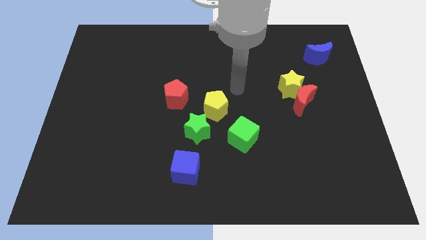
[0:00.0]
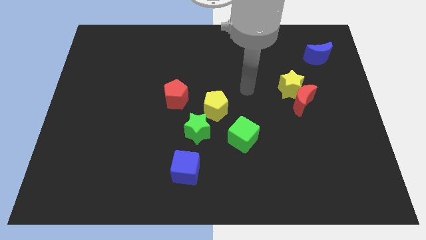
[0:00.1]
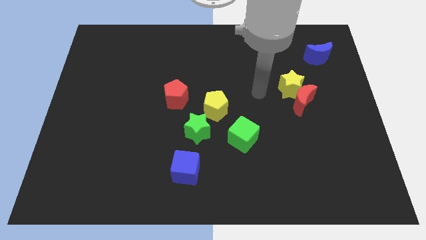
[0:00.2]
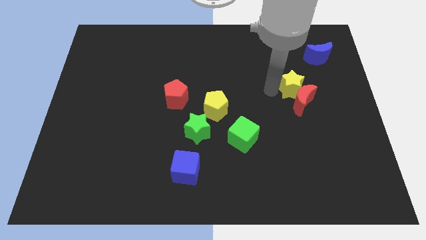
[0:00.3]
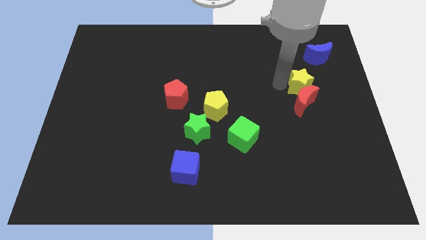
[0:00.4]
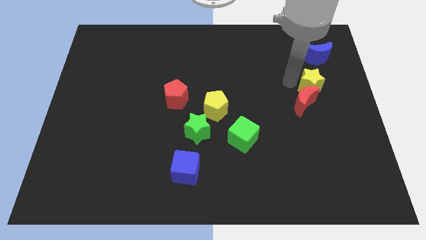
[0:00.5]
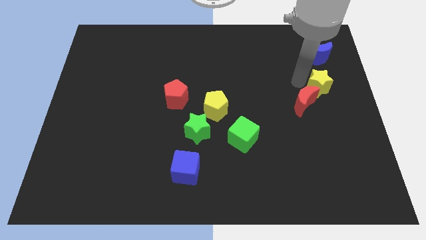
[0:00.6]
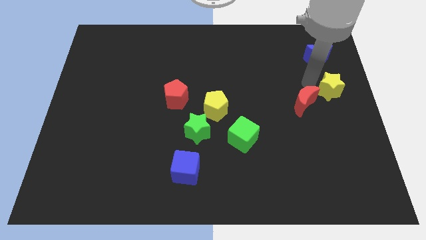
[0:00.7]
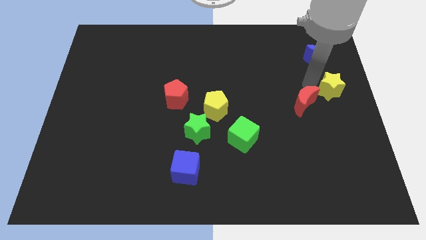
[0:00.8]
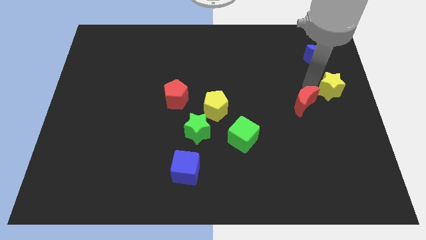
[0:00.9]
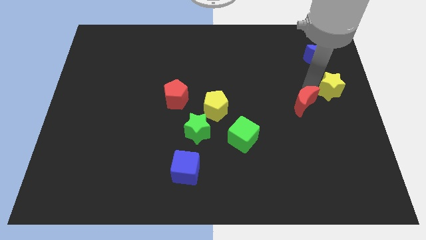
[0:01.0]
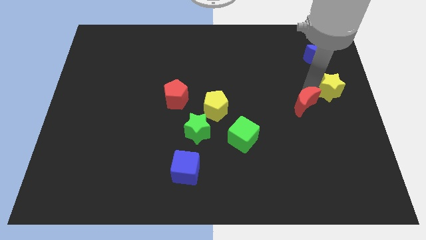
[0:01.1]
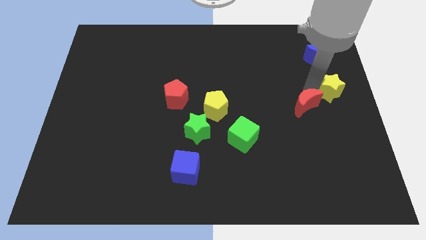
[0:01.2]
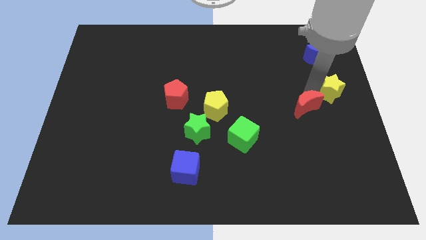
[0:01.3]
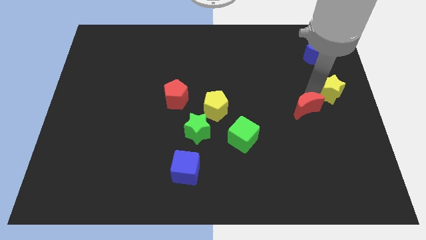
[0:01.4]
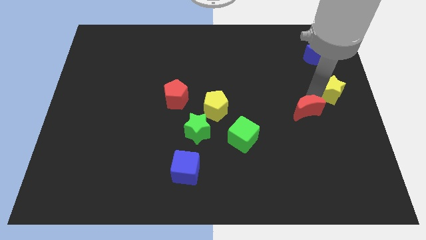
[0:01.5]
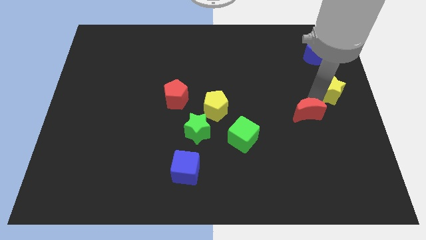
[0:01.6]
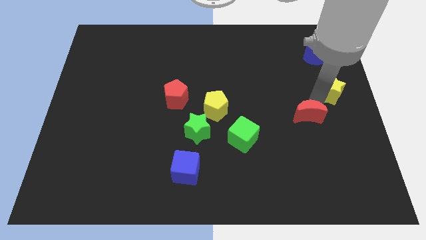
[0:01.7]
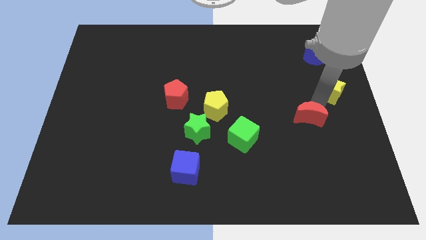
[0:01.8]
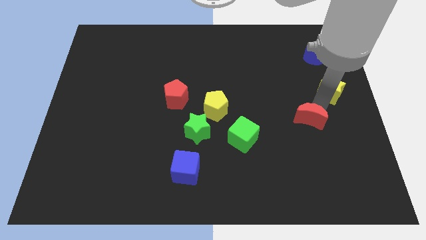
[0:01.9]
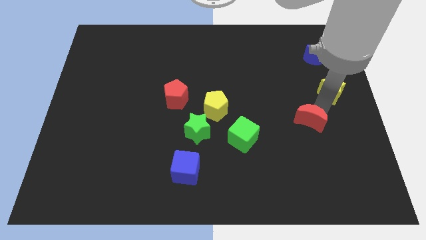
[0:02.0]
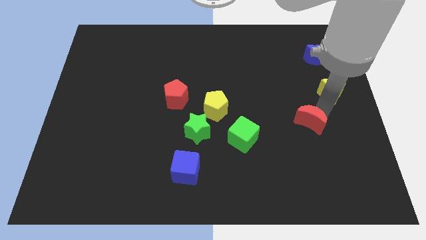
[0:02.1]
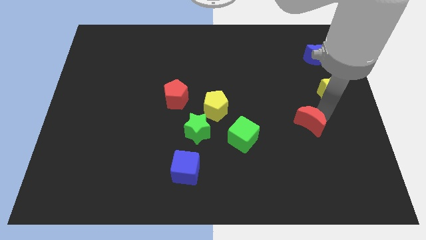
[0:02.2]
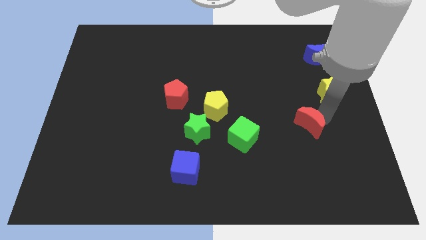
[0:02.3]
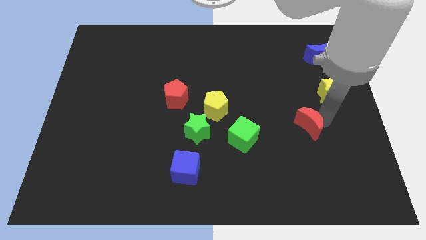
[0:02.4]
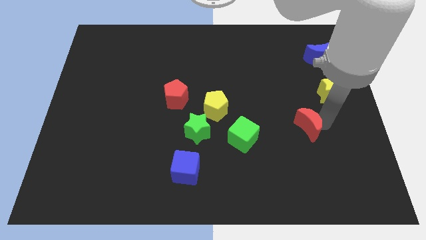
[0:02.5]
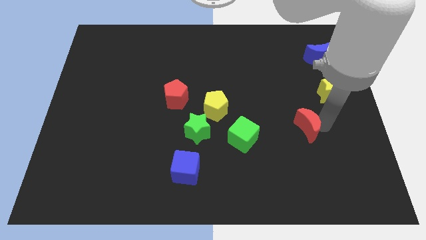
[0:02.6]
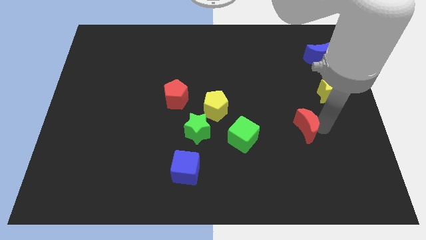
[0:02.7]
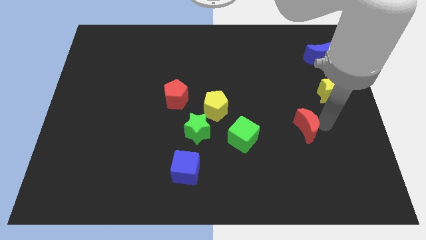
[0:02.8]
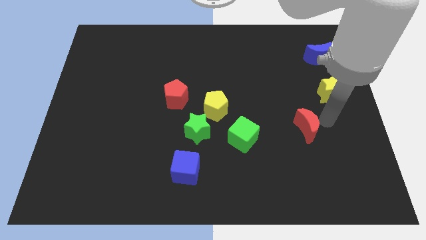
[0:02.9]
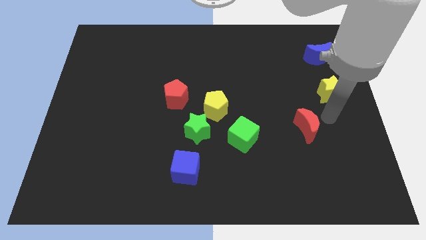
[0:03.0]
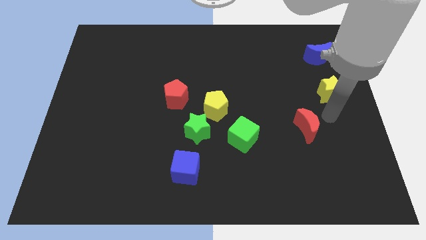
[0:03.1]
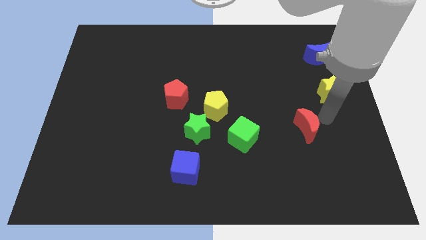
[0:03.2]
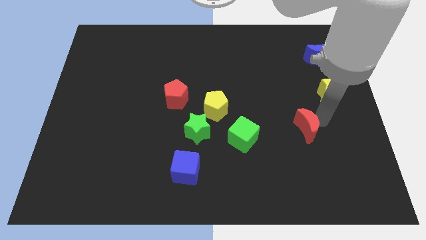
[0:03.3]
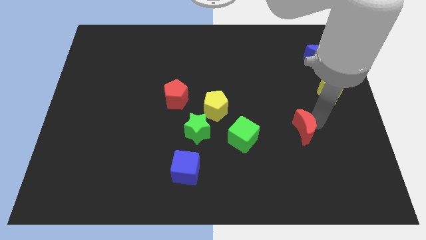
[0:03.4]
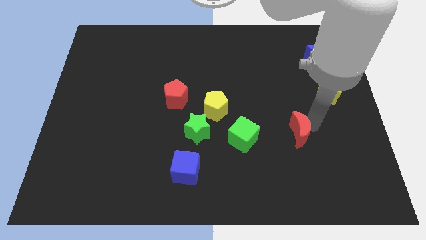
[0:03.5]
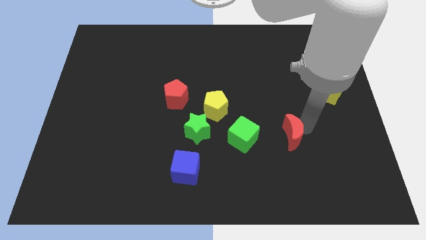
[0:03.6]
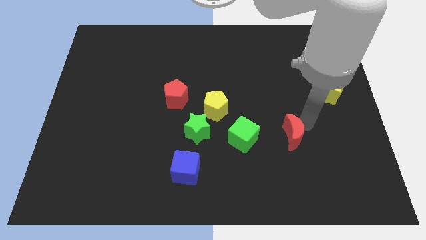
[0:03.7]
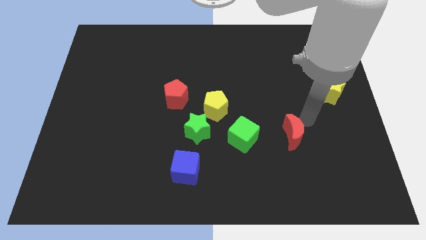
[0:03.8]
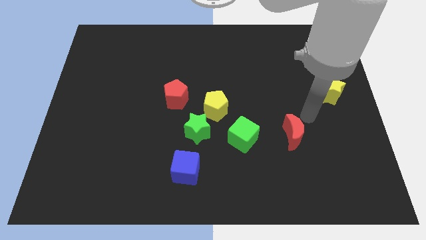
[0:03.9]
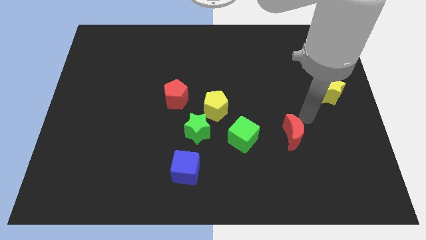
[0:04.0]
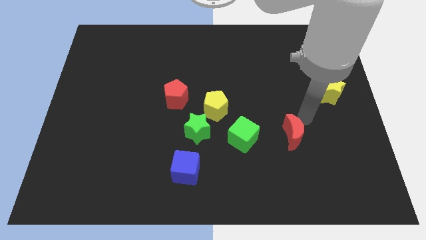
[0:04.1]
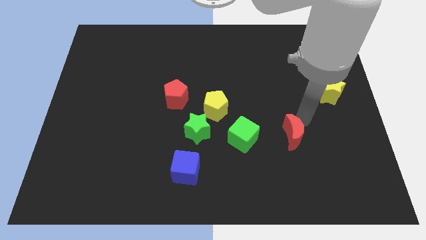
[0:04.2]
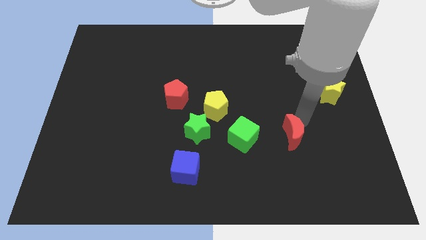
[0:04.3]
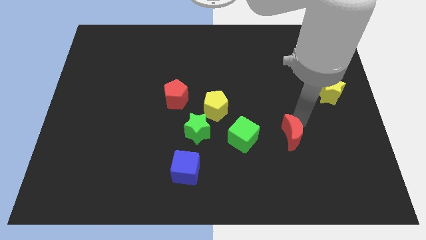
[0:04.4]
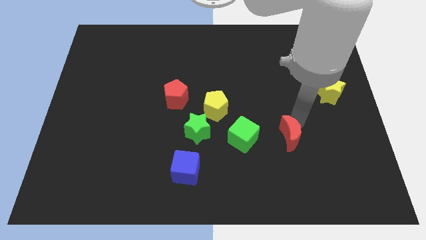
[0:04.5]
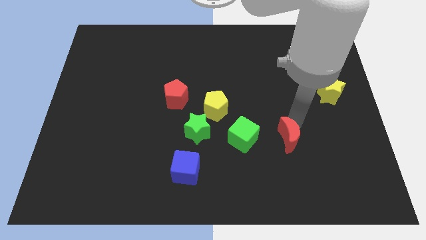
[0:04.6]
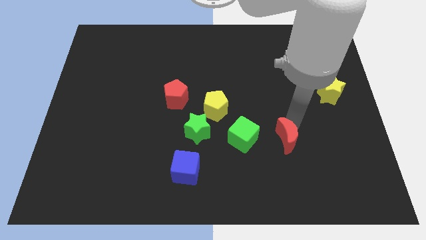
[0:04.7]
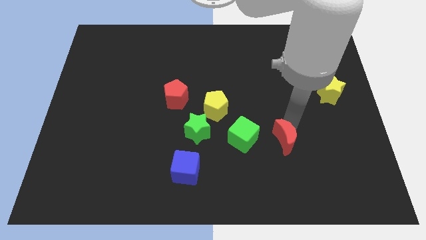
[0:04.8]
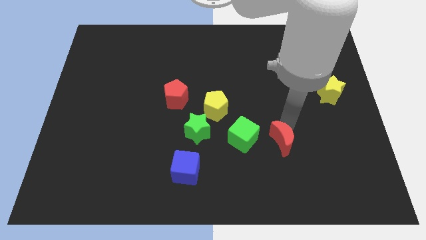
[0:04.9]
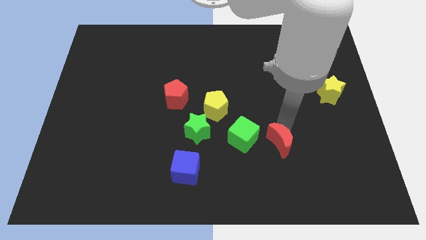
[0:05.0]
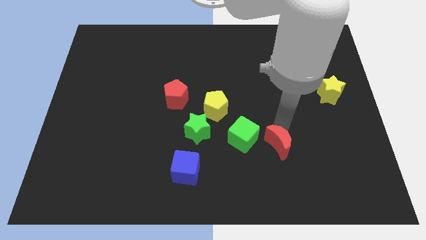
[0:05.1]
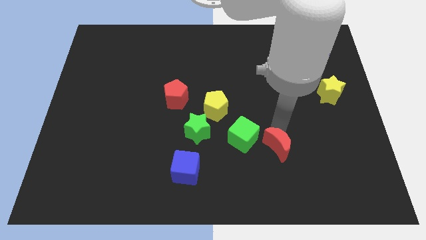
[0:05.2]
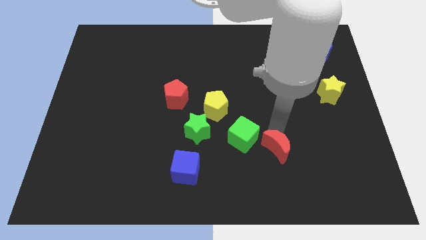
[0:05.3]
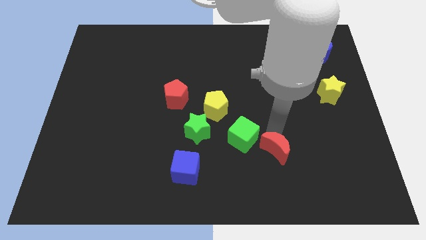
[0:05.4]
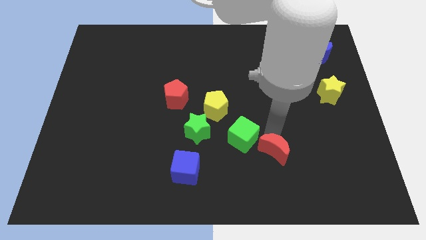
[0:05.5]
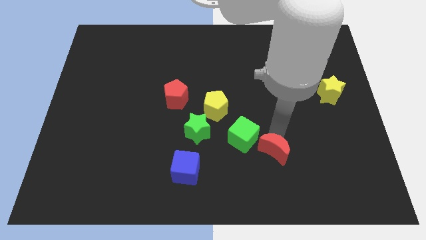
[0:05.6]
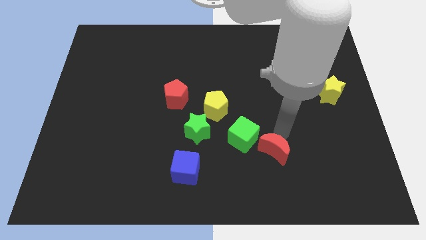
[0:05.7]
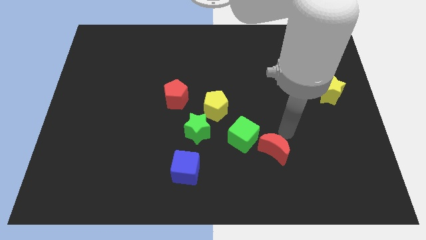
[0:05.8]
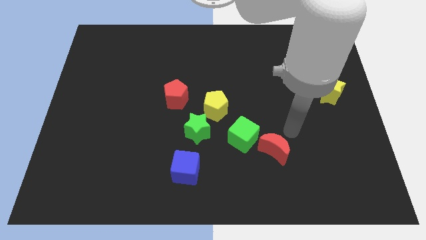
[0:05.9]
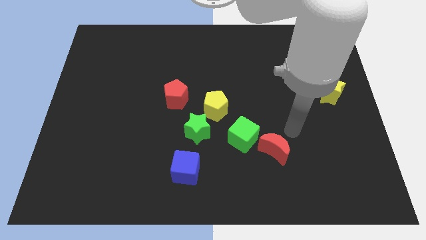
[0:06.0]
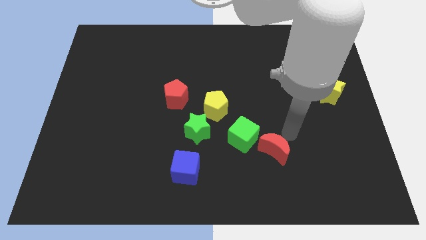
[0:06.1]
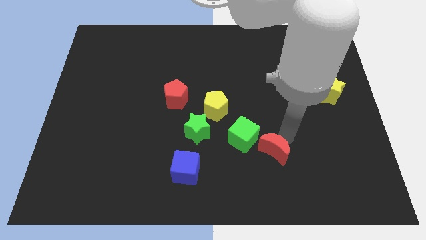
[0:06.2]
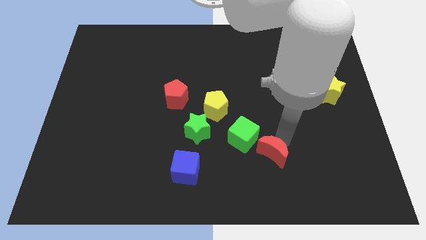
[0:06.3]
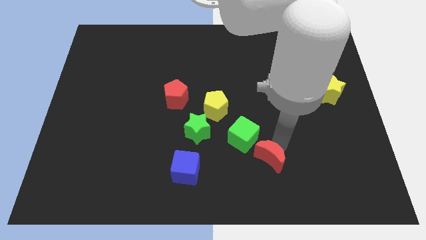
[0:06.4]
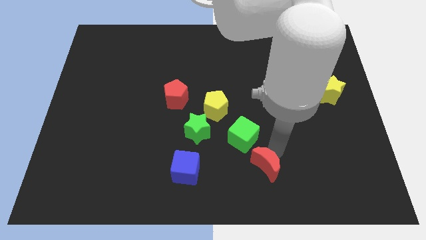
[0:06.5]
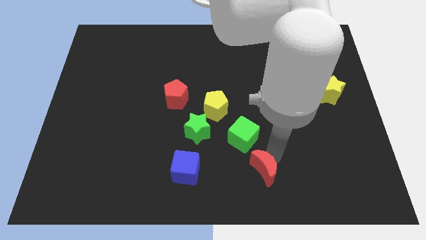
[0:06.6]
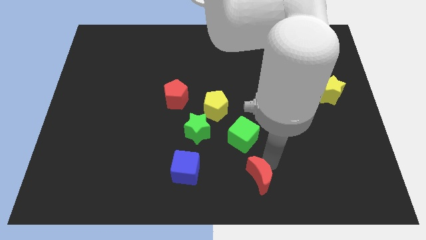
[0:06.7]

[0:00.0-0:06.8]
move the red moon to the bottom side

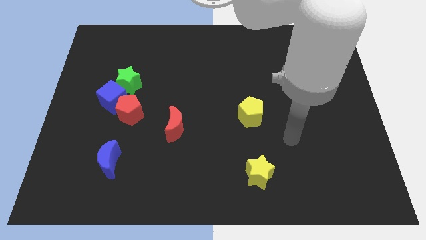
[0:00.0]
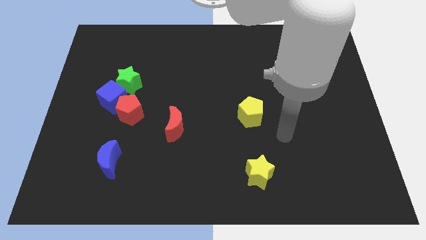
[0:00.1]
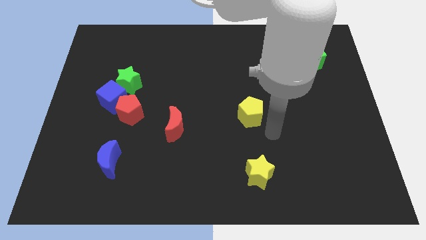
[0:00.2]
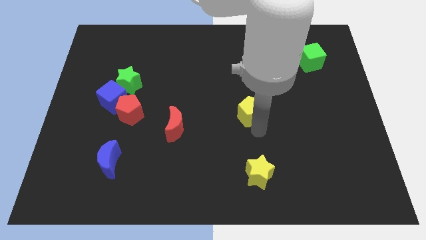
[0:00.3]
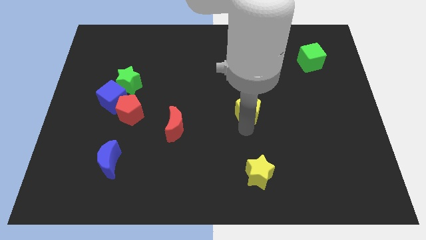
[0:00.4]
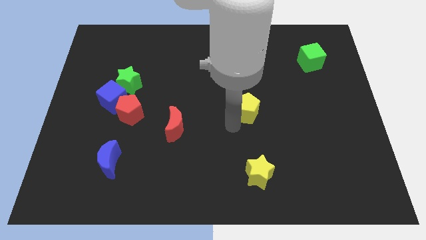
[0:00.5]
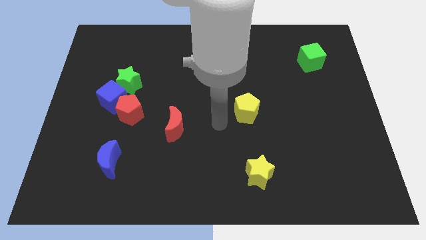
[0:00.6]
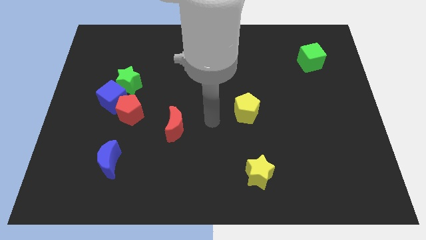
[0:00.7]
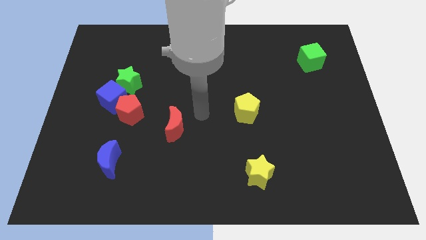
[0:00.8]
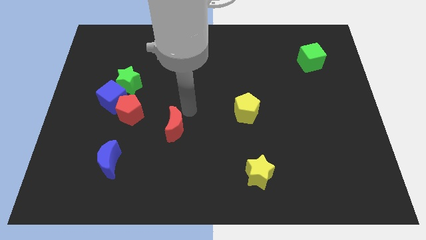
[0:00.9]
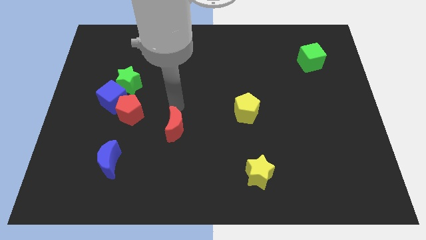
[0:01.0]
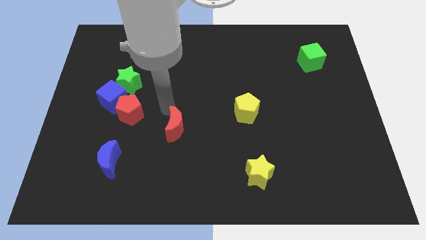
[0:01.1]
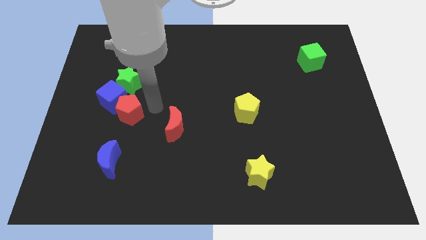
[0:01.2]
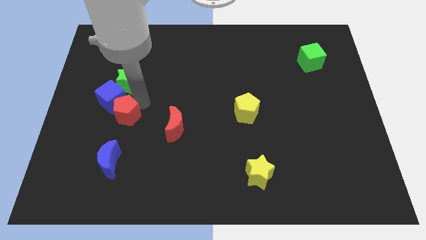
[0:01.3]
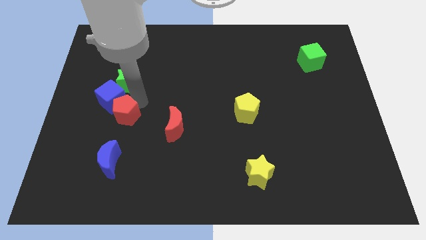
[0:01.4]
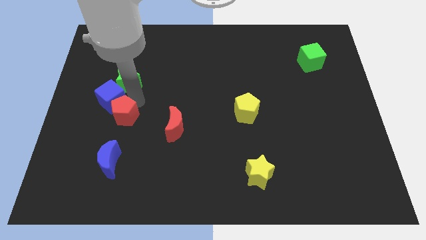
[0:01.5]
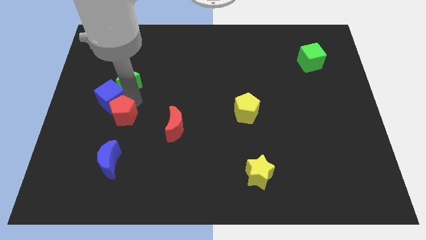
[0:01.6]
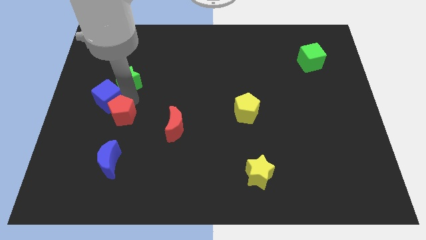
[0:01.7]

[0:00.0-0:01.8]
put the blue cube to the left side of the board
